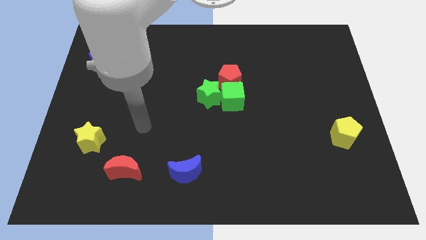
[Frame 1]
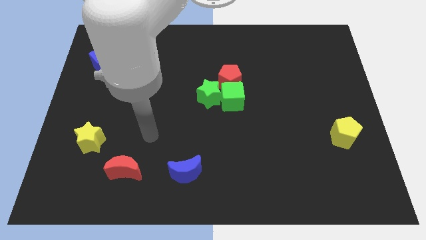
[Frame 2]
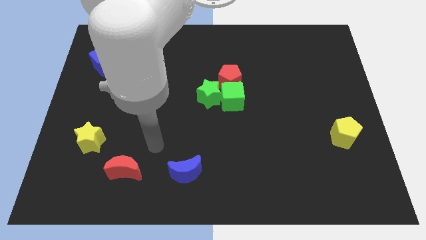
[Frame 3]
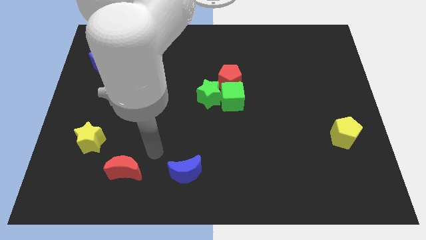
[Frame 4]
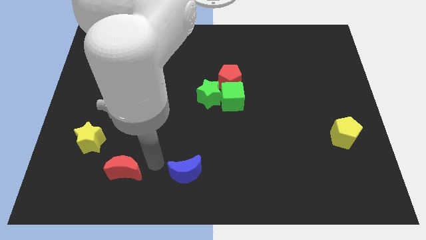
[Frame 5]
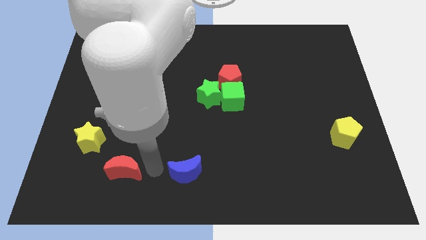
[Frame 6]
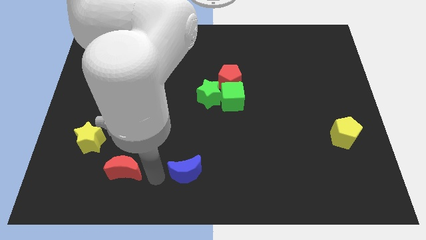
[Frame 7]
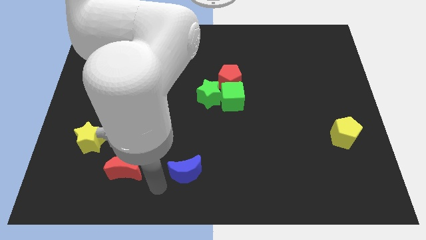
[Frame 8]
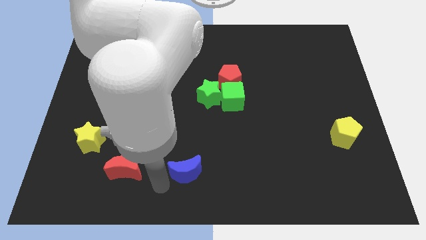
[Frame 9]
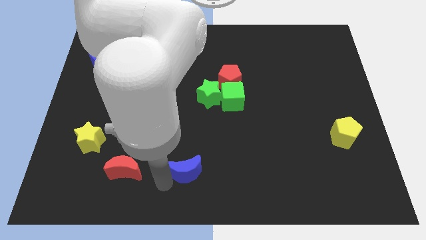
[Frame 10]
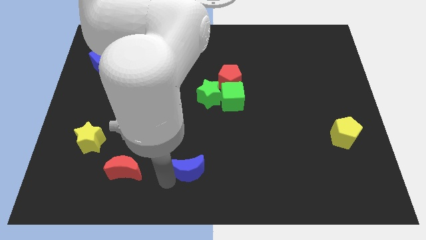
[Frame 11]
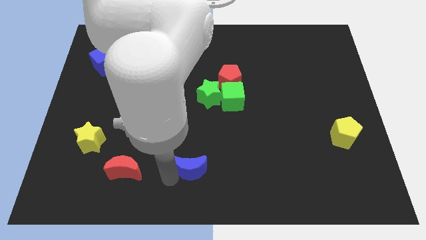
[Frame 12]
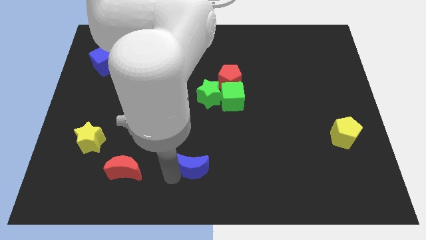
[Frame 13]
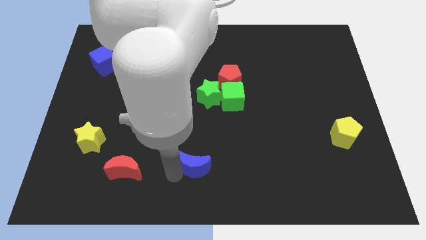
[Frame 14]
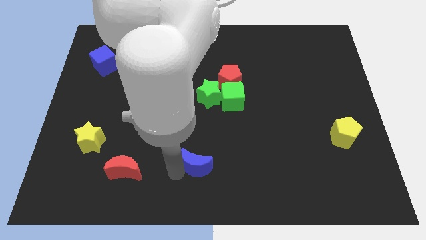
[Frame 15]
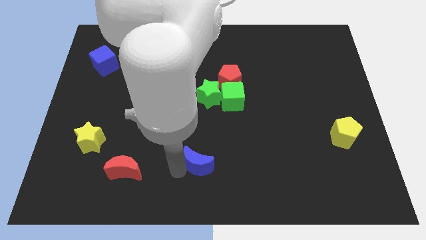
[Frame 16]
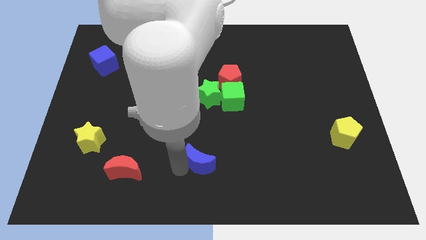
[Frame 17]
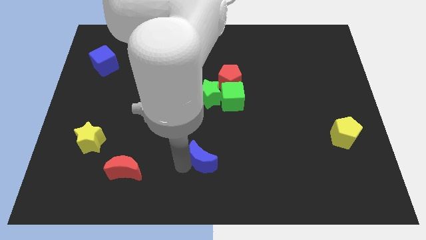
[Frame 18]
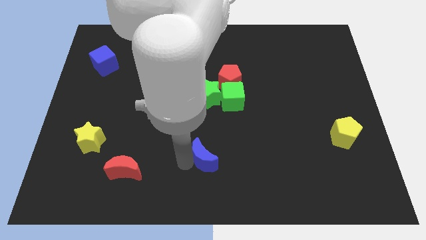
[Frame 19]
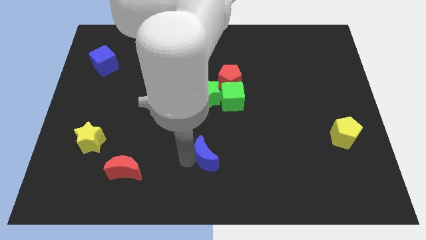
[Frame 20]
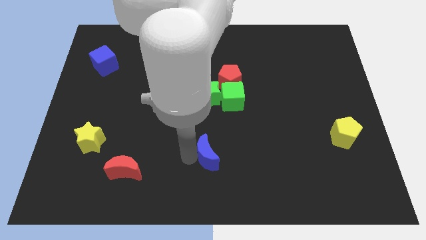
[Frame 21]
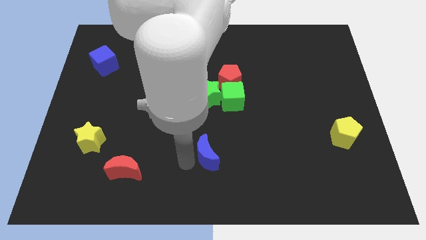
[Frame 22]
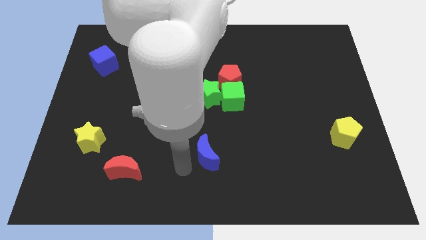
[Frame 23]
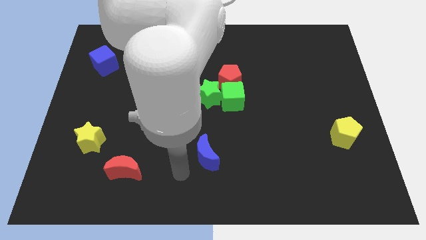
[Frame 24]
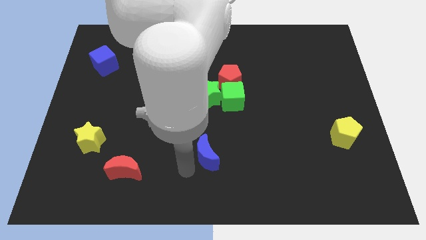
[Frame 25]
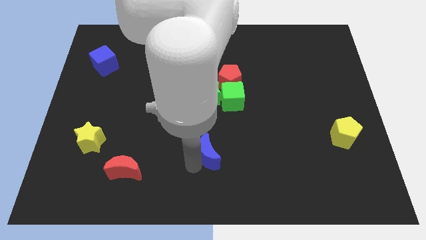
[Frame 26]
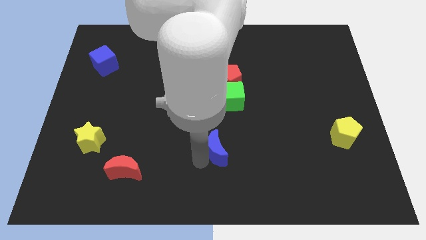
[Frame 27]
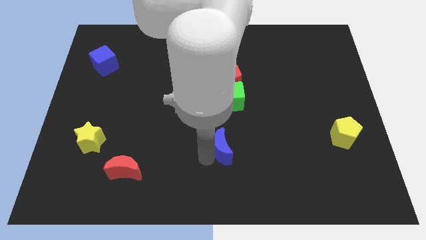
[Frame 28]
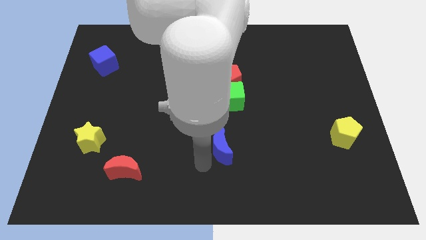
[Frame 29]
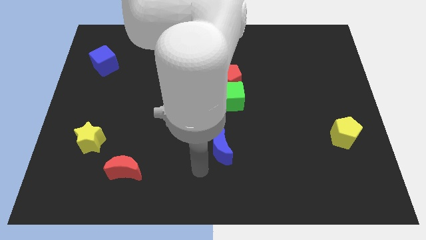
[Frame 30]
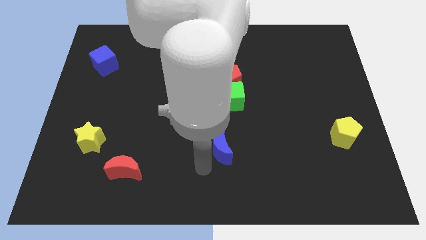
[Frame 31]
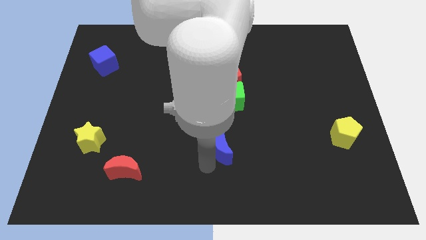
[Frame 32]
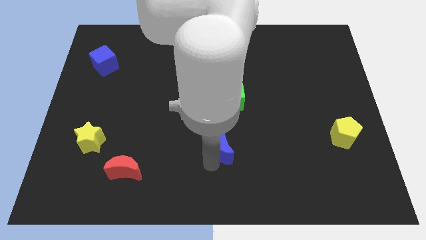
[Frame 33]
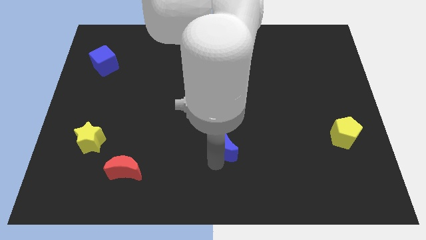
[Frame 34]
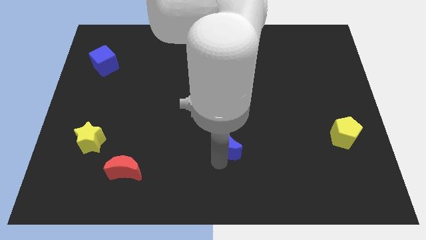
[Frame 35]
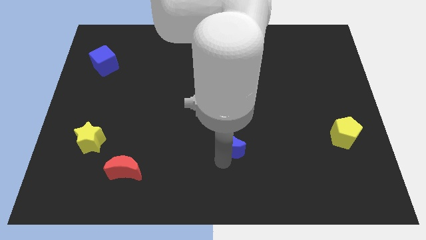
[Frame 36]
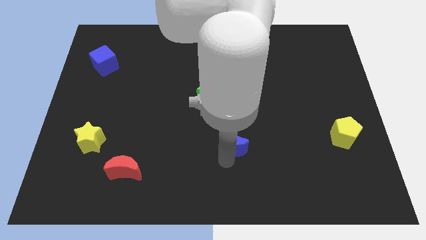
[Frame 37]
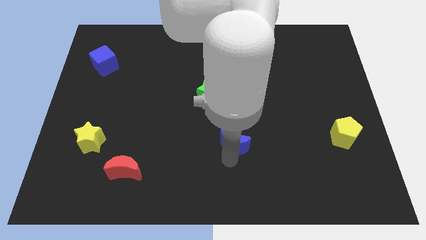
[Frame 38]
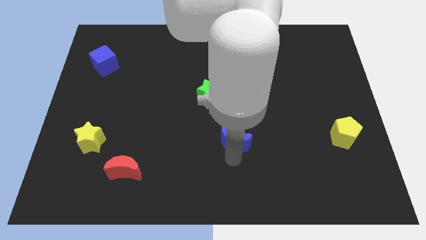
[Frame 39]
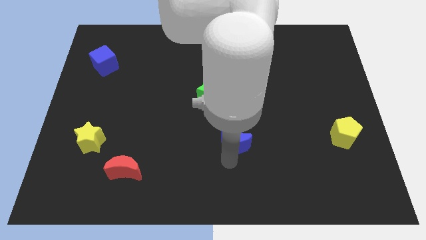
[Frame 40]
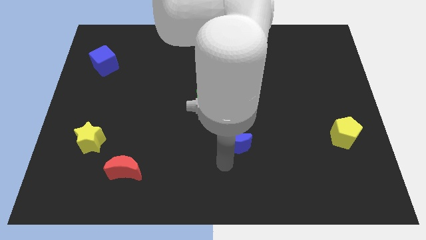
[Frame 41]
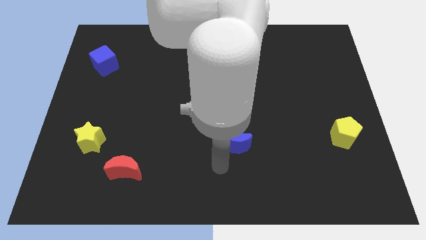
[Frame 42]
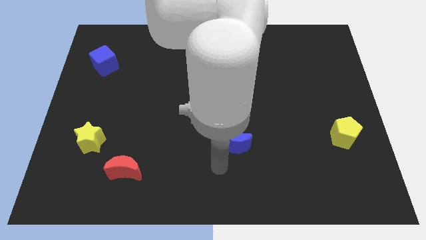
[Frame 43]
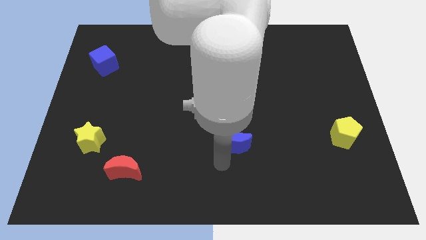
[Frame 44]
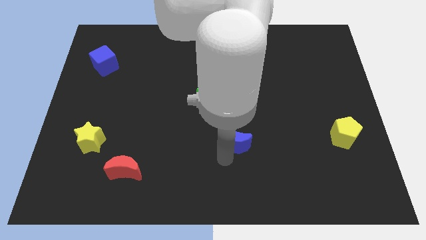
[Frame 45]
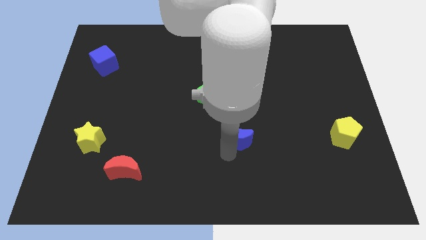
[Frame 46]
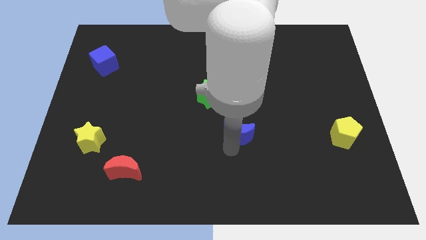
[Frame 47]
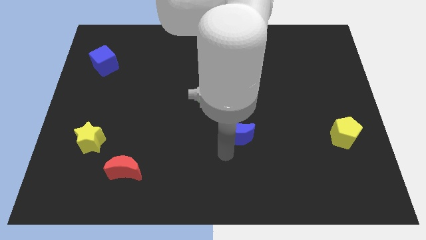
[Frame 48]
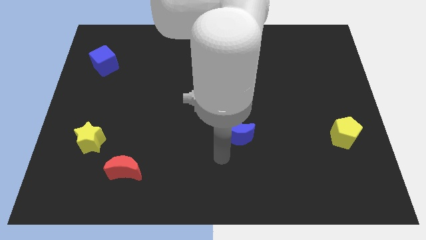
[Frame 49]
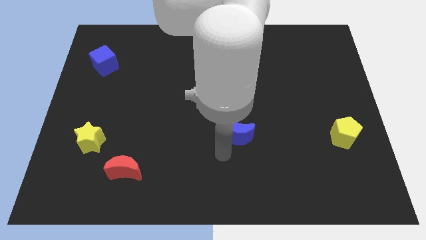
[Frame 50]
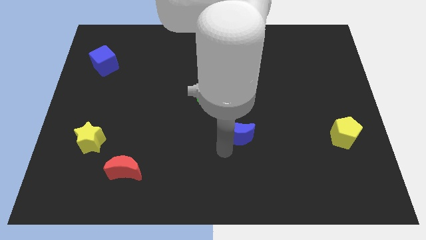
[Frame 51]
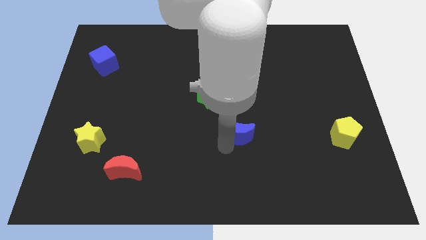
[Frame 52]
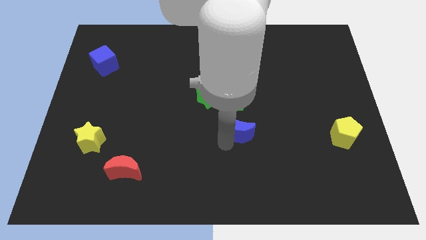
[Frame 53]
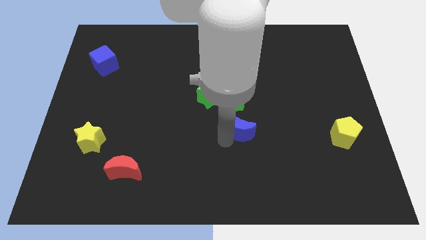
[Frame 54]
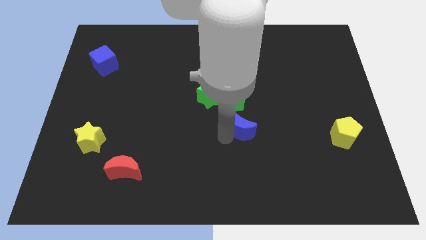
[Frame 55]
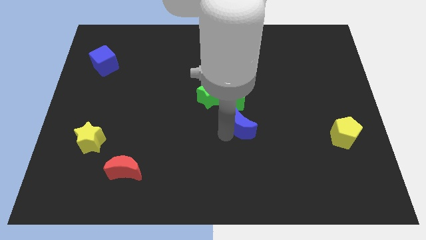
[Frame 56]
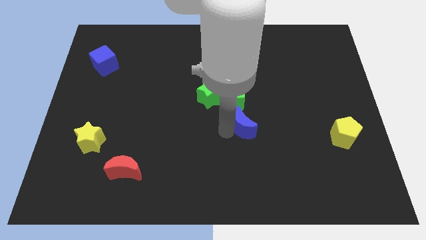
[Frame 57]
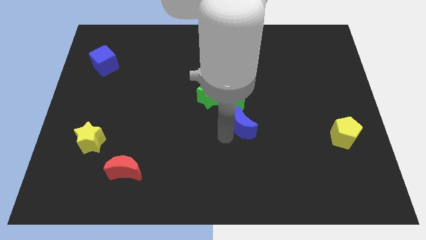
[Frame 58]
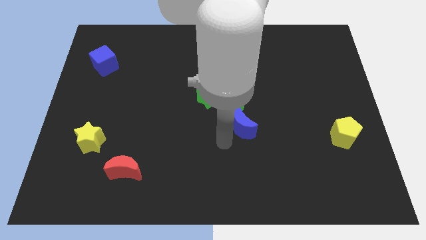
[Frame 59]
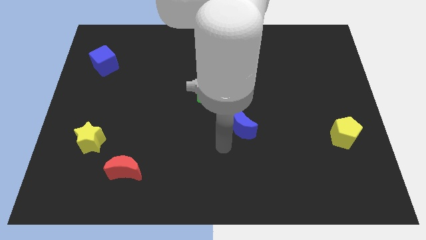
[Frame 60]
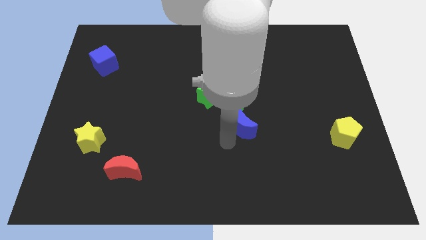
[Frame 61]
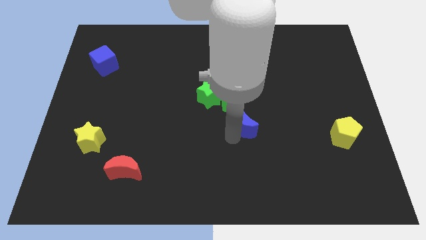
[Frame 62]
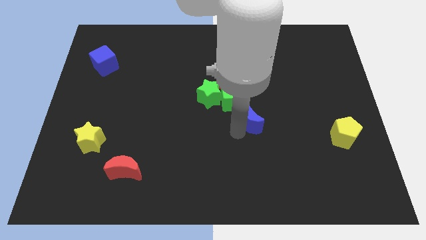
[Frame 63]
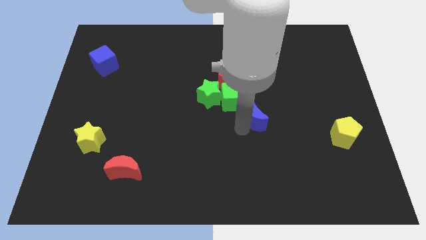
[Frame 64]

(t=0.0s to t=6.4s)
push the blue moon upwards and right

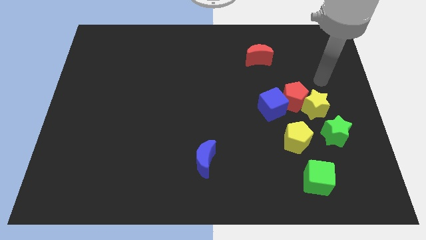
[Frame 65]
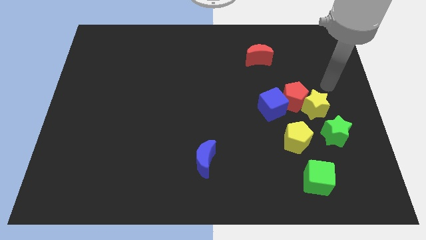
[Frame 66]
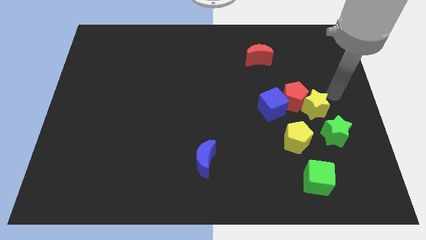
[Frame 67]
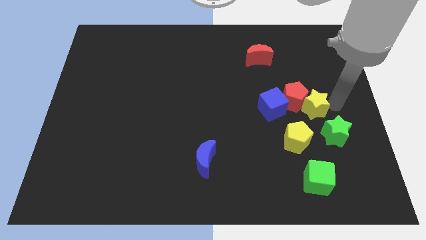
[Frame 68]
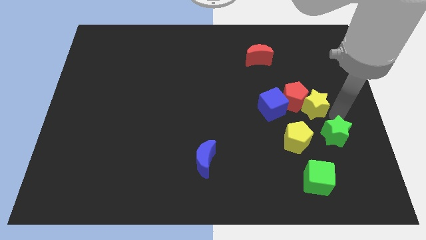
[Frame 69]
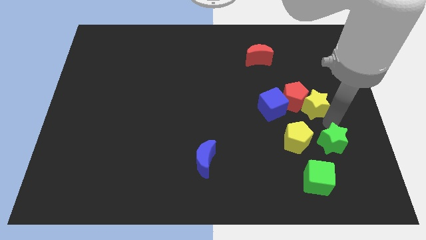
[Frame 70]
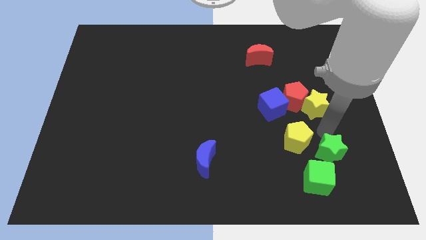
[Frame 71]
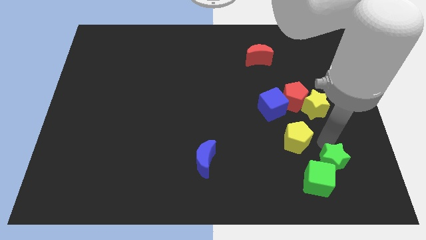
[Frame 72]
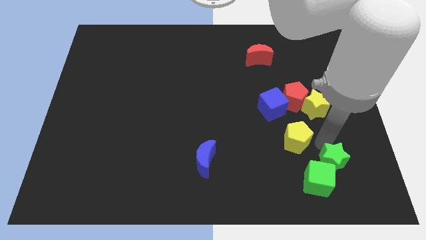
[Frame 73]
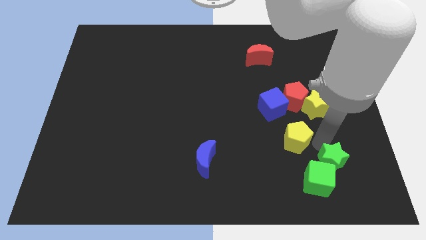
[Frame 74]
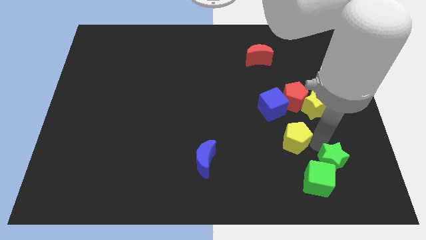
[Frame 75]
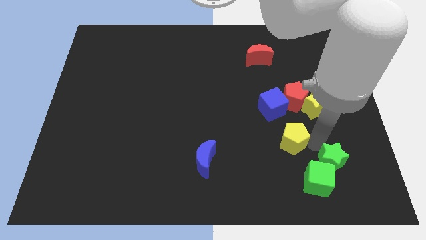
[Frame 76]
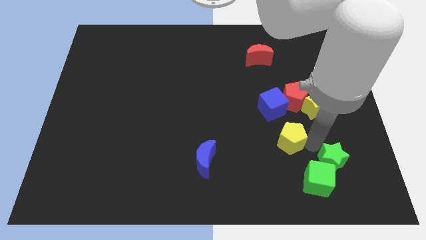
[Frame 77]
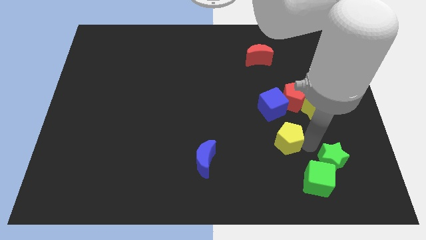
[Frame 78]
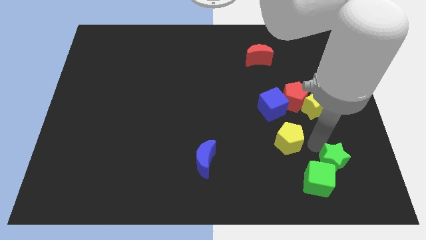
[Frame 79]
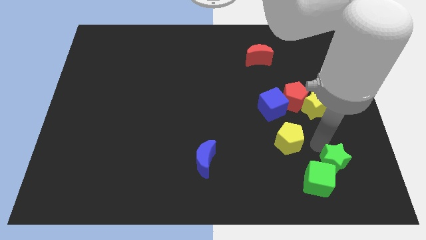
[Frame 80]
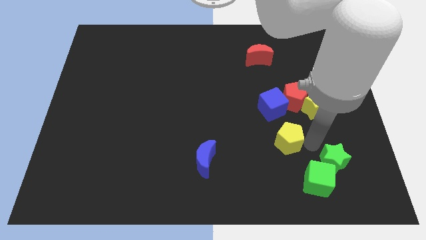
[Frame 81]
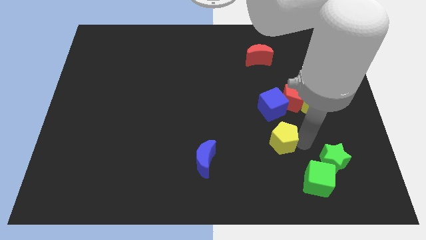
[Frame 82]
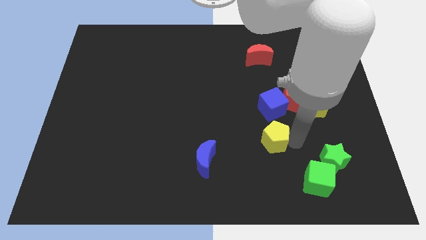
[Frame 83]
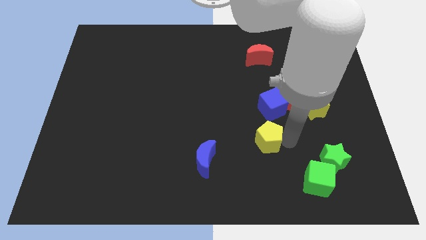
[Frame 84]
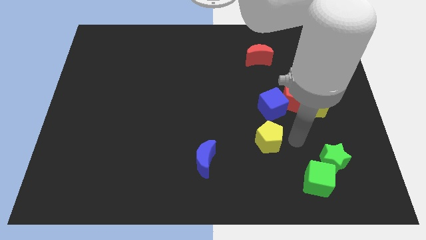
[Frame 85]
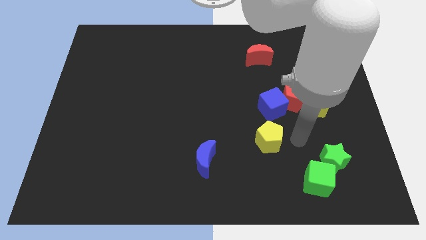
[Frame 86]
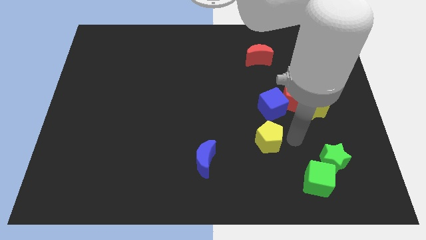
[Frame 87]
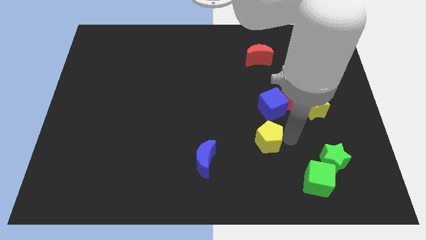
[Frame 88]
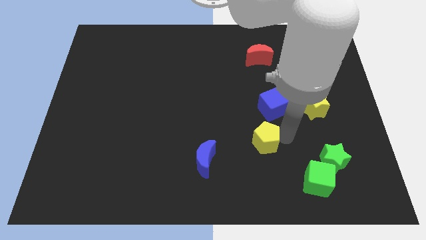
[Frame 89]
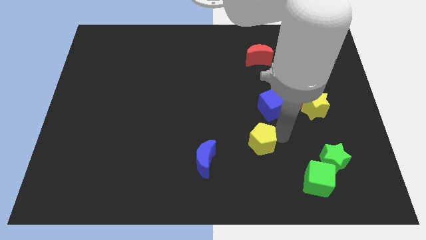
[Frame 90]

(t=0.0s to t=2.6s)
slightly push the yellow pentagon left
